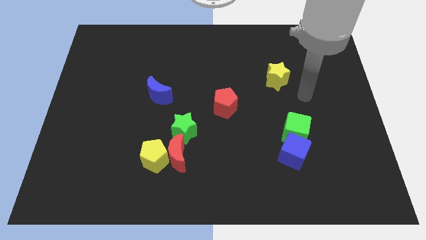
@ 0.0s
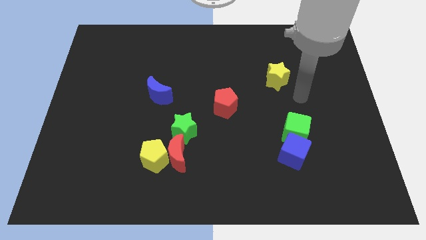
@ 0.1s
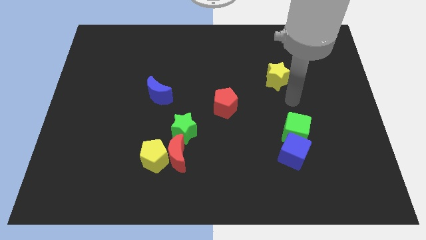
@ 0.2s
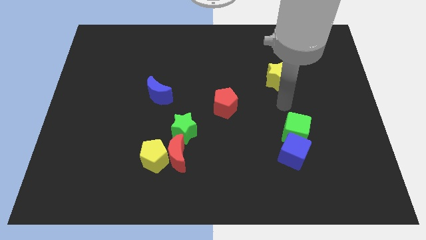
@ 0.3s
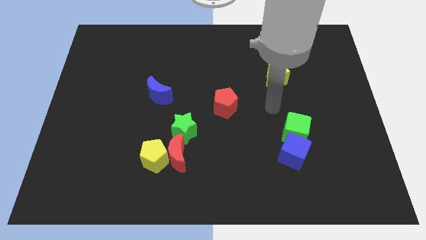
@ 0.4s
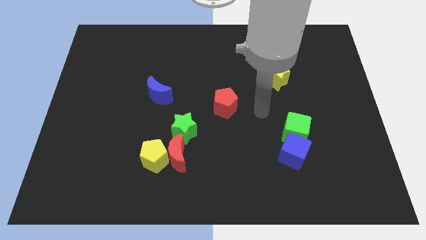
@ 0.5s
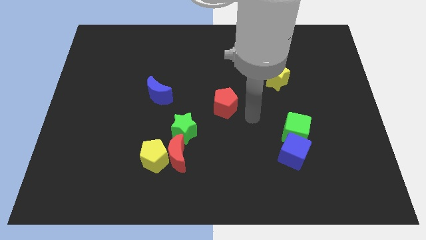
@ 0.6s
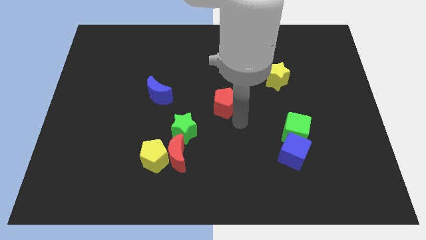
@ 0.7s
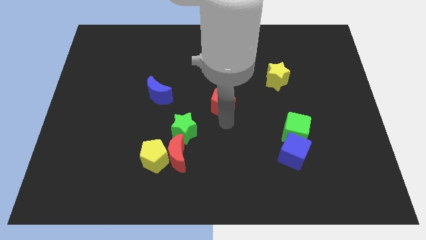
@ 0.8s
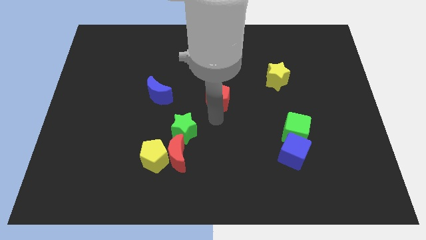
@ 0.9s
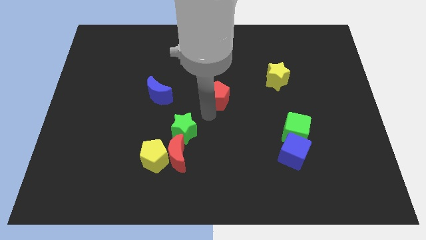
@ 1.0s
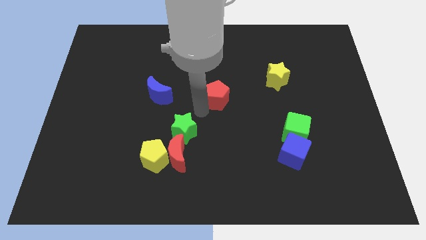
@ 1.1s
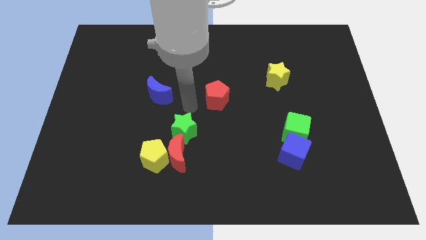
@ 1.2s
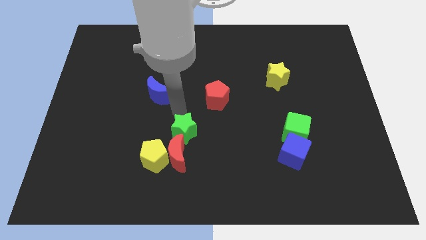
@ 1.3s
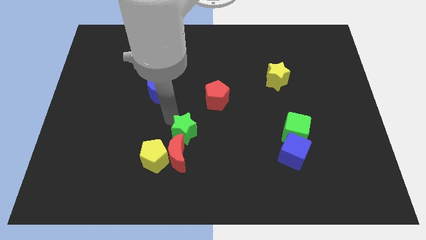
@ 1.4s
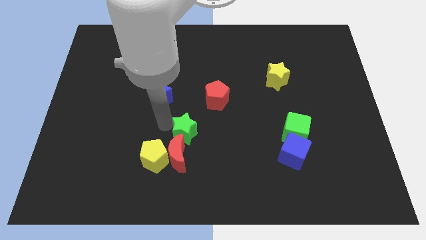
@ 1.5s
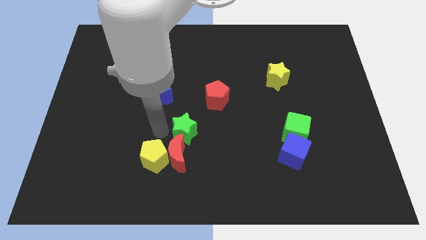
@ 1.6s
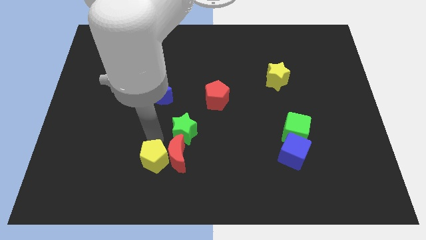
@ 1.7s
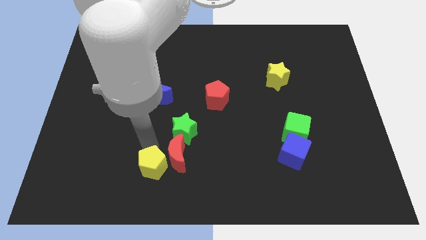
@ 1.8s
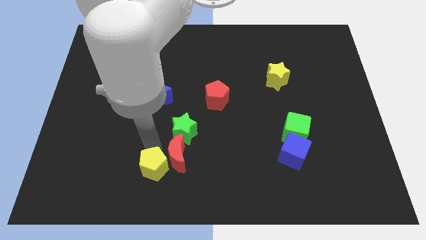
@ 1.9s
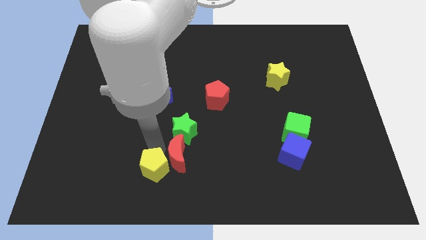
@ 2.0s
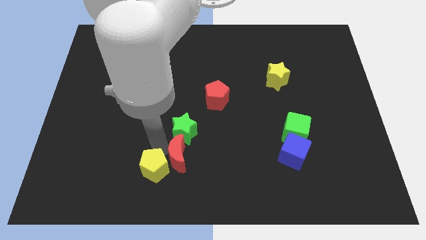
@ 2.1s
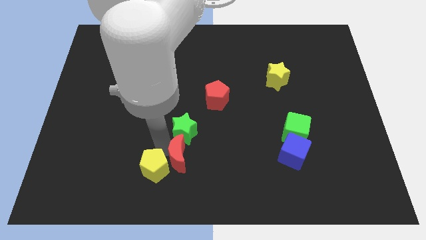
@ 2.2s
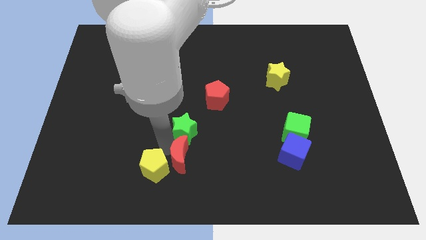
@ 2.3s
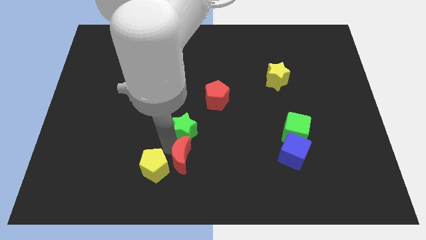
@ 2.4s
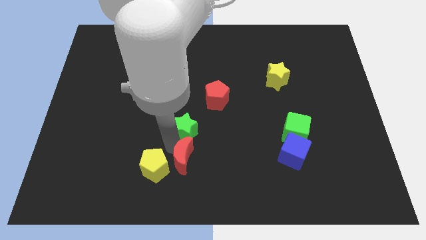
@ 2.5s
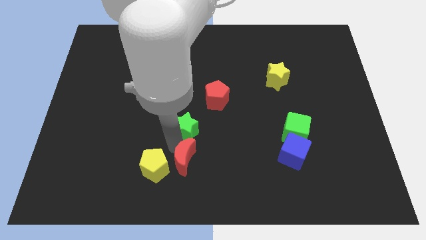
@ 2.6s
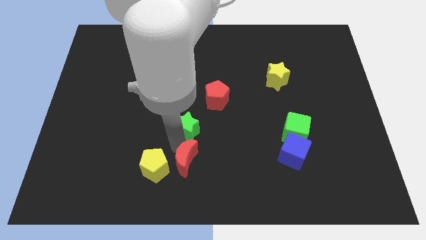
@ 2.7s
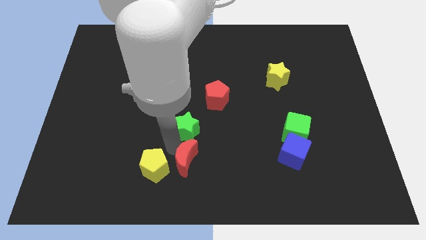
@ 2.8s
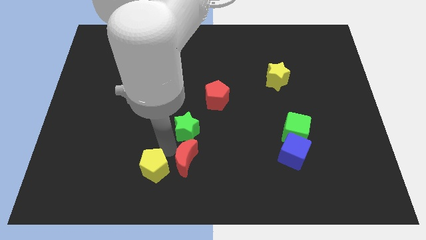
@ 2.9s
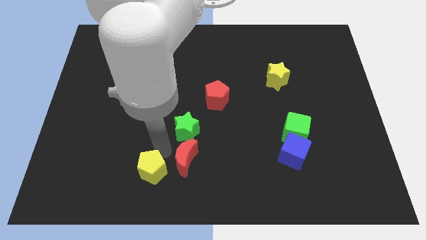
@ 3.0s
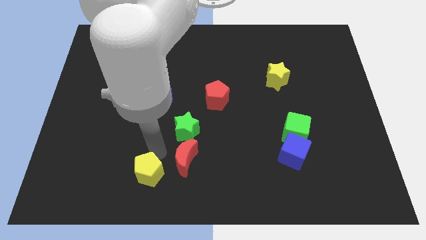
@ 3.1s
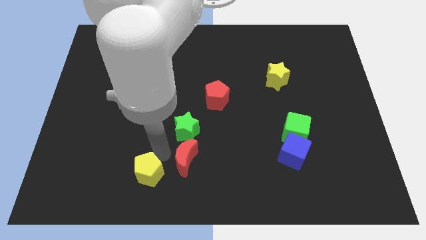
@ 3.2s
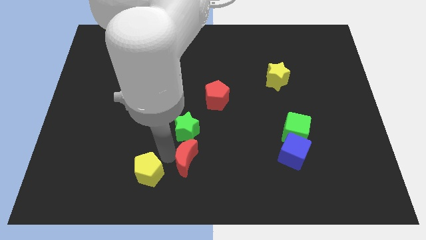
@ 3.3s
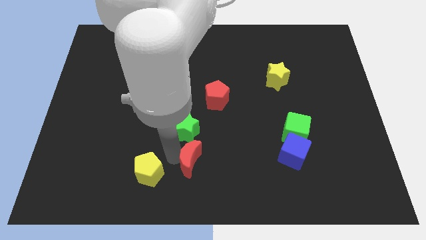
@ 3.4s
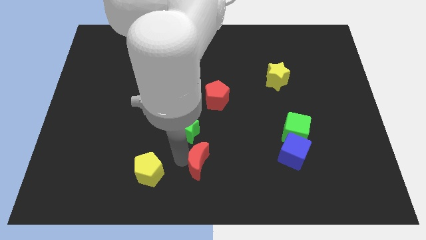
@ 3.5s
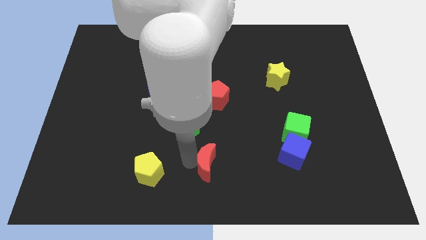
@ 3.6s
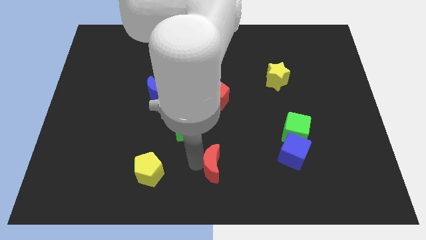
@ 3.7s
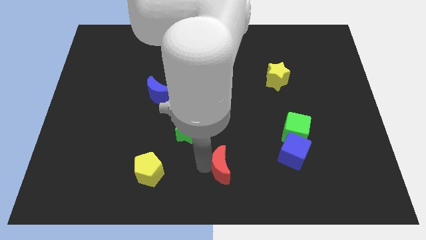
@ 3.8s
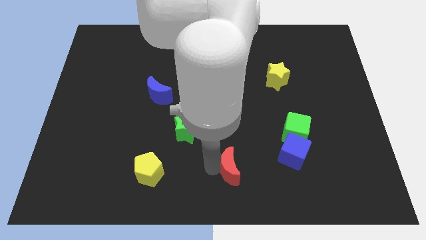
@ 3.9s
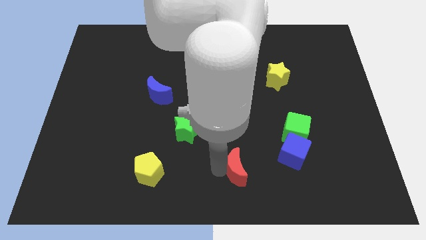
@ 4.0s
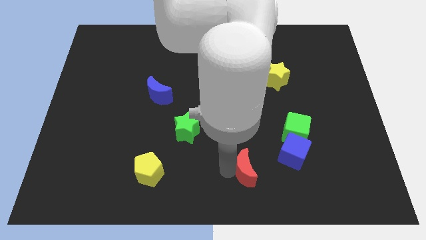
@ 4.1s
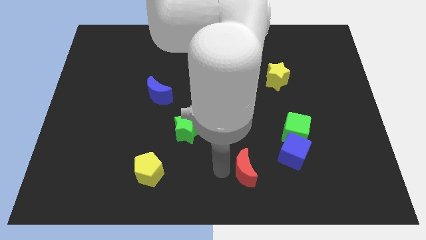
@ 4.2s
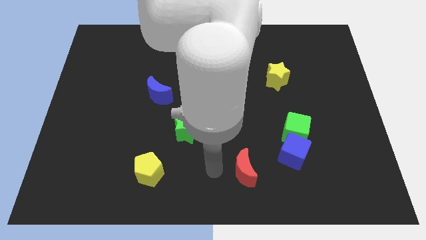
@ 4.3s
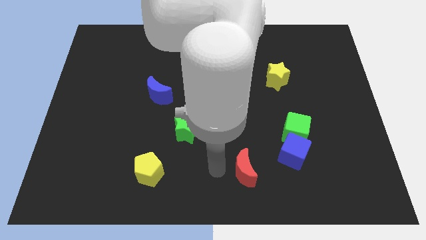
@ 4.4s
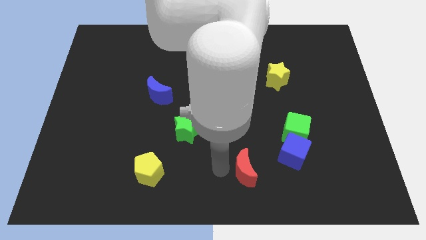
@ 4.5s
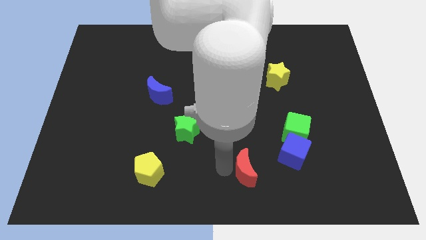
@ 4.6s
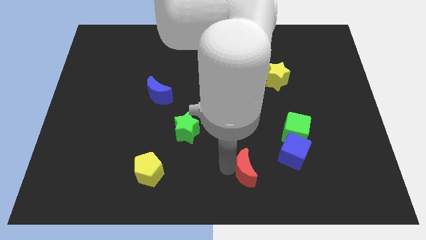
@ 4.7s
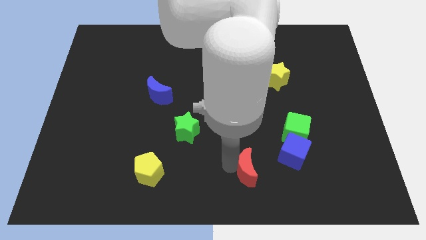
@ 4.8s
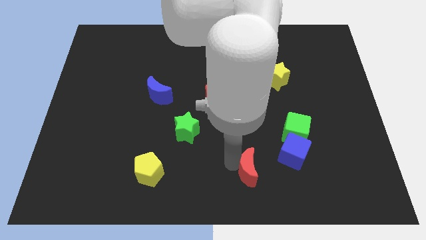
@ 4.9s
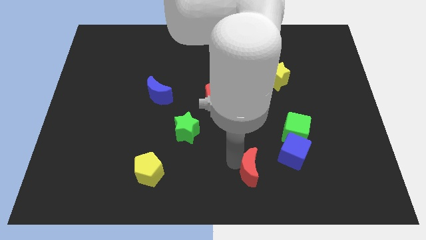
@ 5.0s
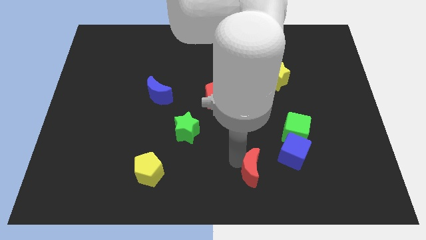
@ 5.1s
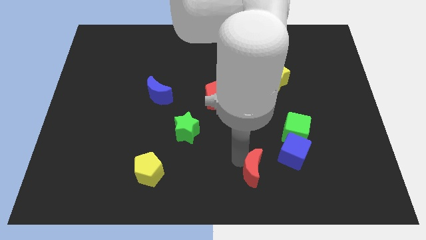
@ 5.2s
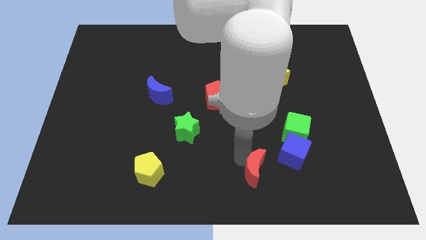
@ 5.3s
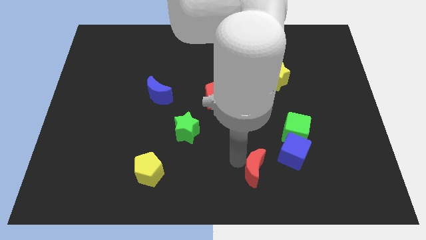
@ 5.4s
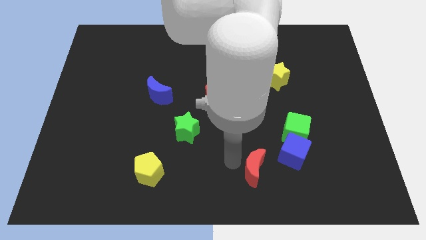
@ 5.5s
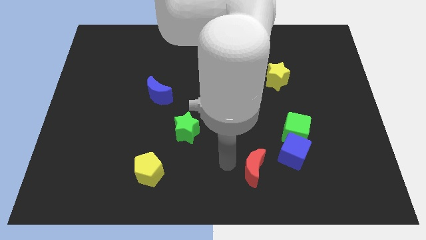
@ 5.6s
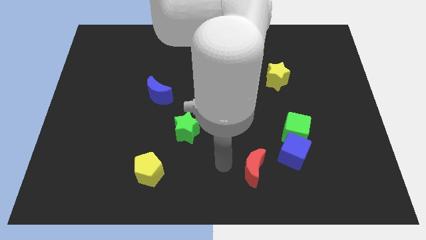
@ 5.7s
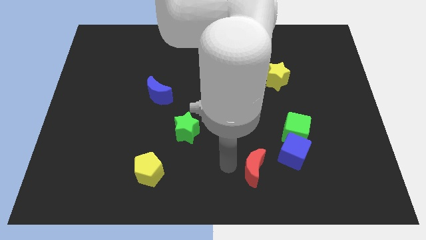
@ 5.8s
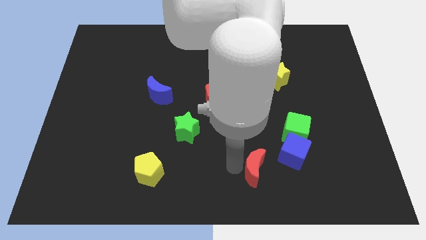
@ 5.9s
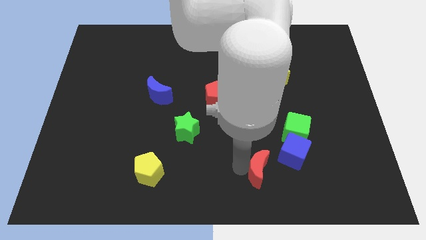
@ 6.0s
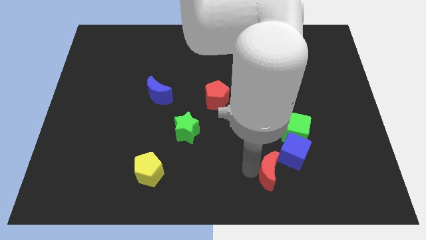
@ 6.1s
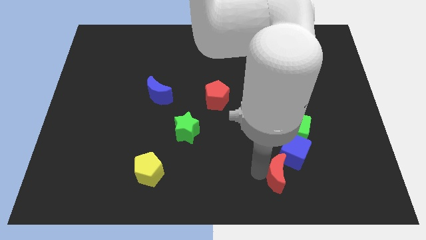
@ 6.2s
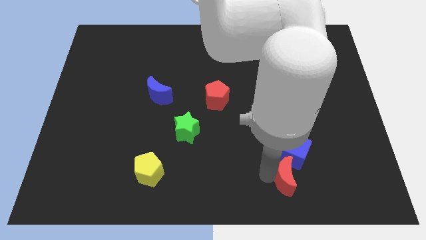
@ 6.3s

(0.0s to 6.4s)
push the red moon to the bottom side of the green cube

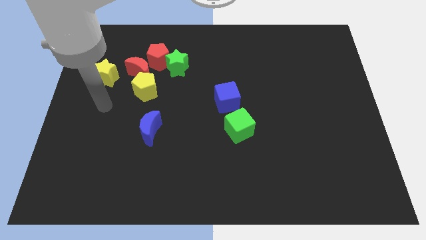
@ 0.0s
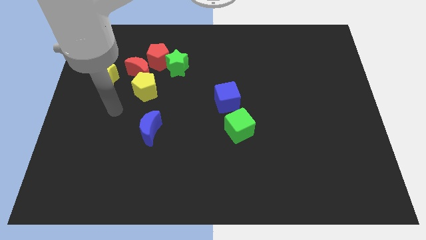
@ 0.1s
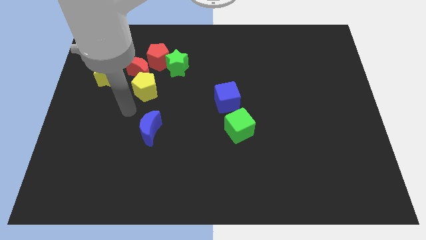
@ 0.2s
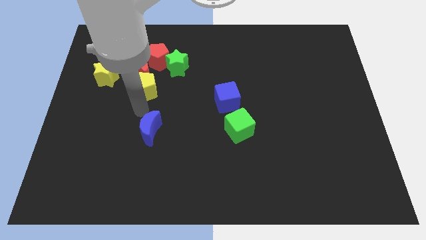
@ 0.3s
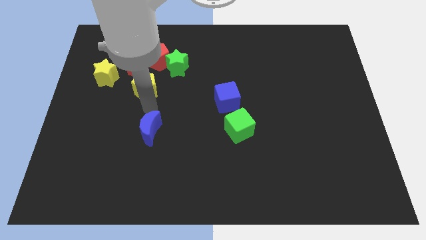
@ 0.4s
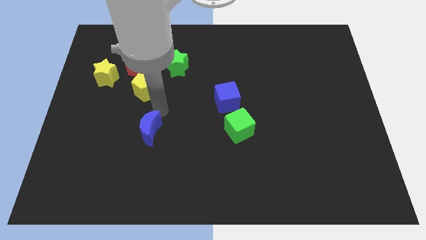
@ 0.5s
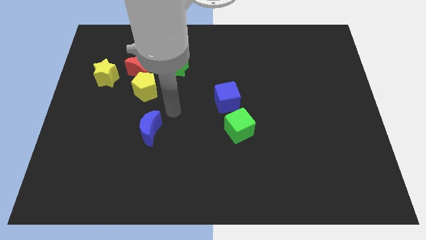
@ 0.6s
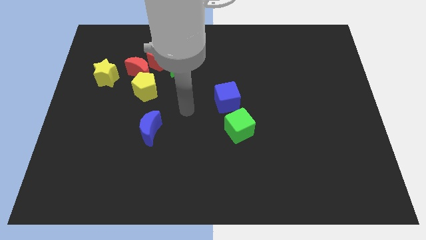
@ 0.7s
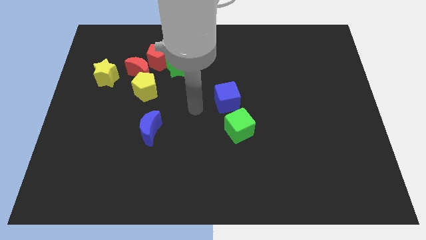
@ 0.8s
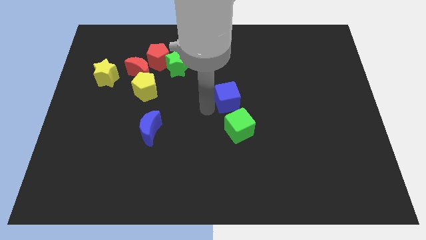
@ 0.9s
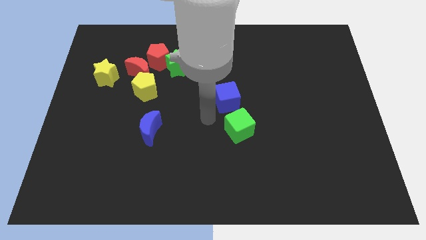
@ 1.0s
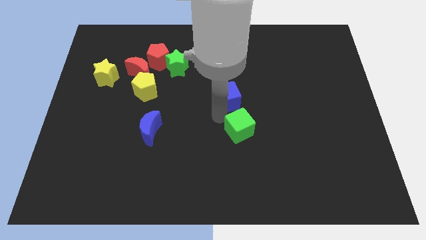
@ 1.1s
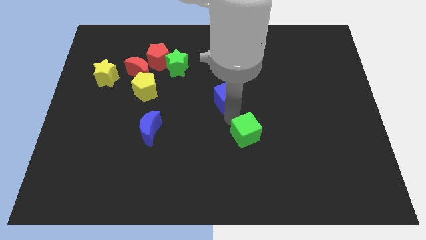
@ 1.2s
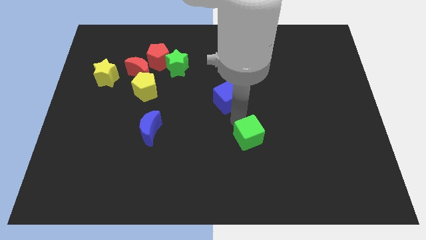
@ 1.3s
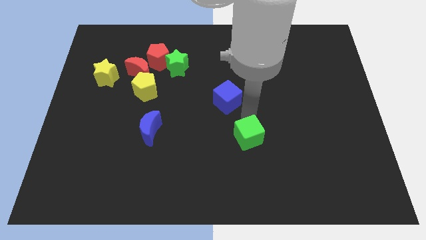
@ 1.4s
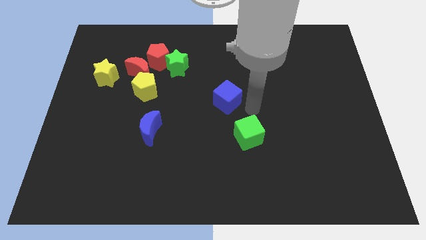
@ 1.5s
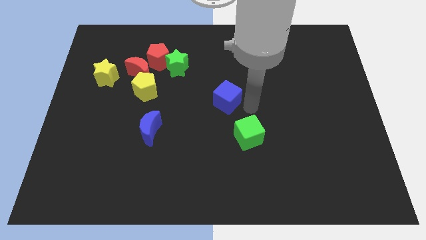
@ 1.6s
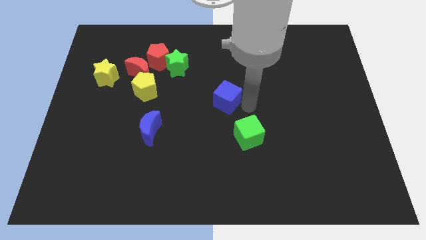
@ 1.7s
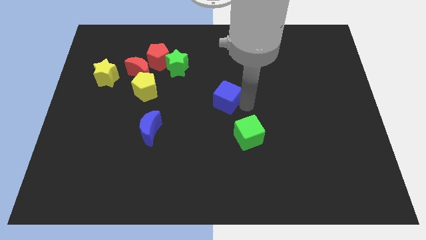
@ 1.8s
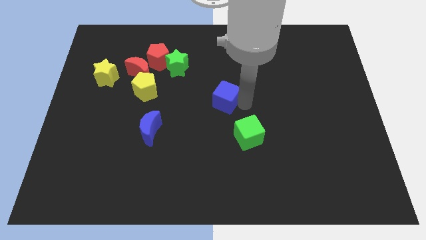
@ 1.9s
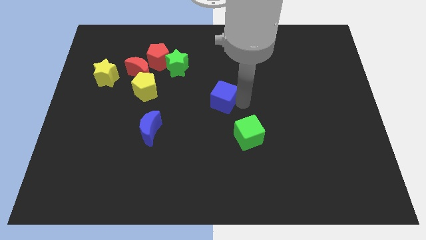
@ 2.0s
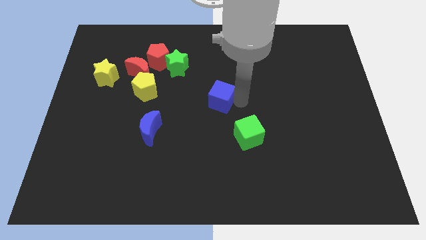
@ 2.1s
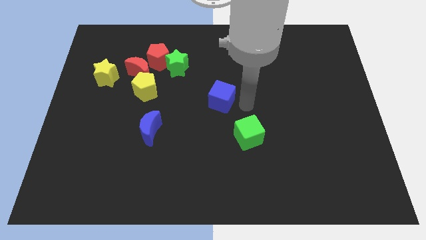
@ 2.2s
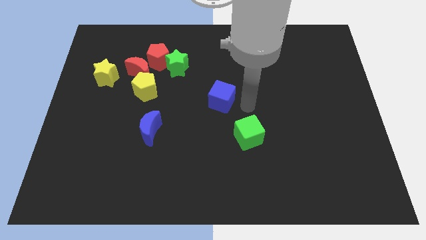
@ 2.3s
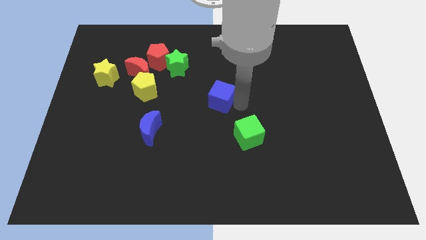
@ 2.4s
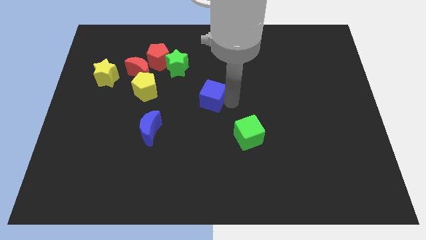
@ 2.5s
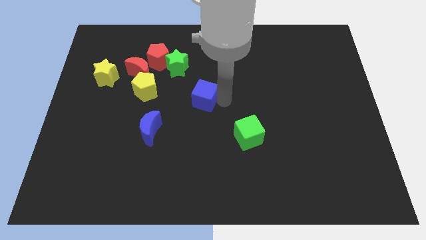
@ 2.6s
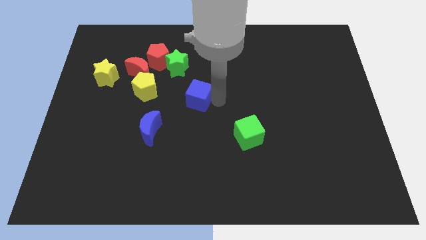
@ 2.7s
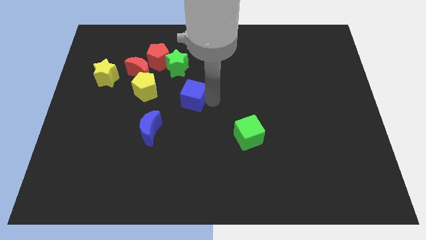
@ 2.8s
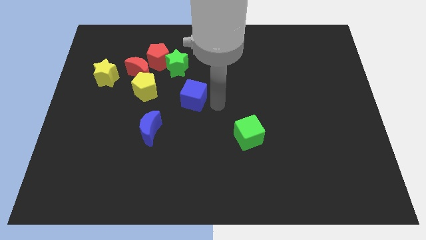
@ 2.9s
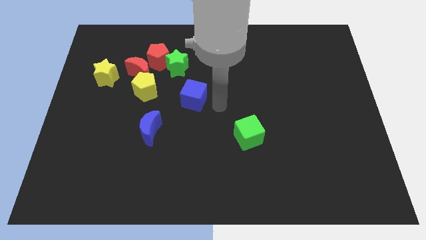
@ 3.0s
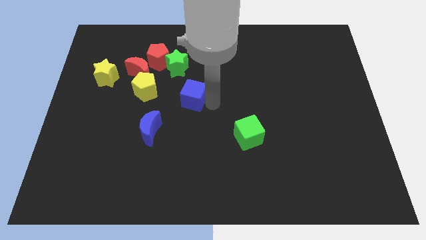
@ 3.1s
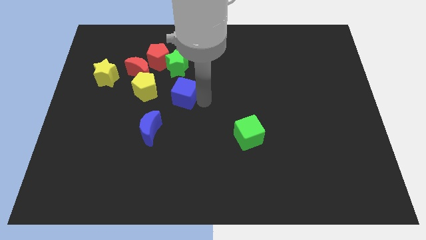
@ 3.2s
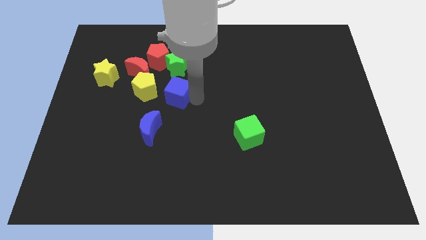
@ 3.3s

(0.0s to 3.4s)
put the blue cube to the bottom right side of the red moon
